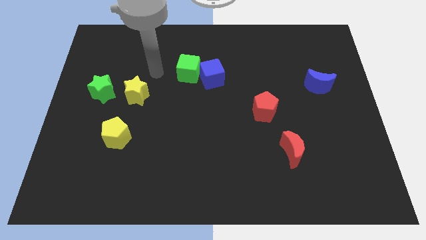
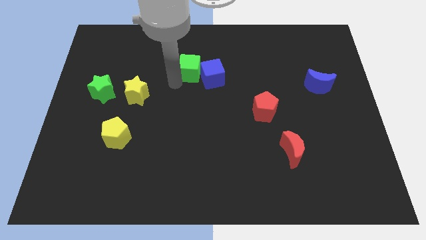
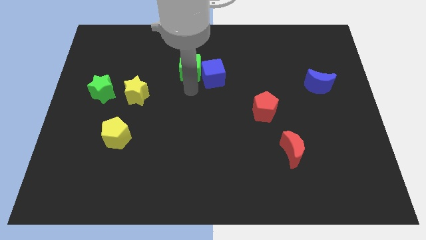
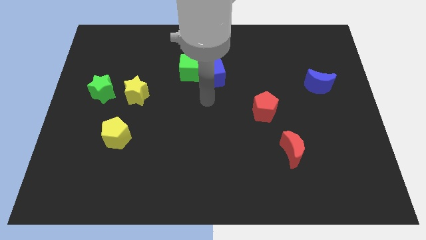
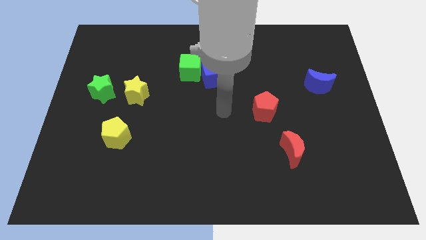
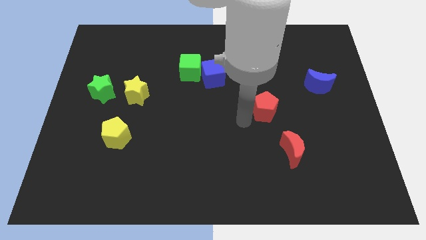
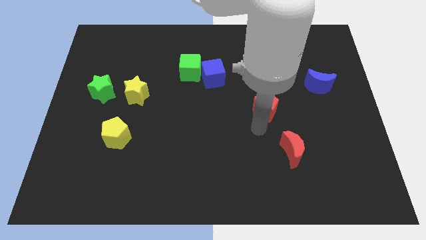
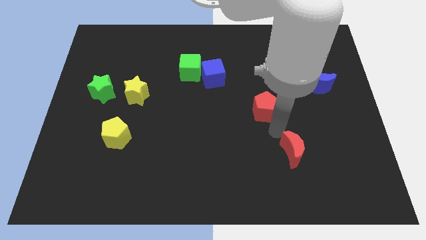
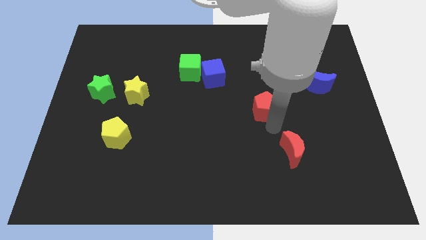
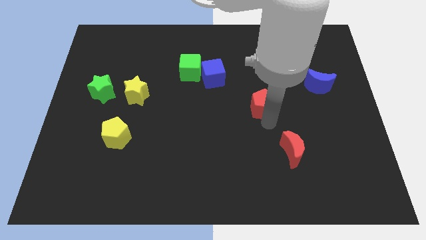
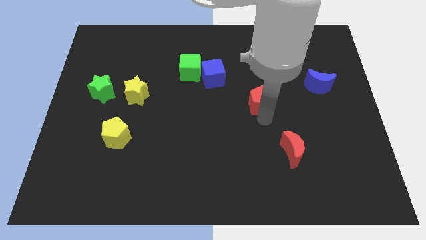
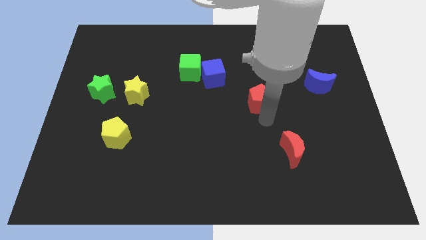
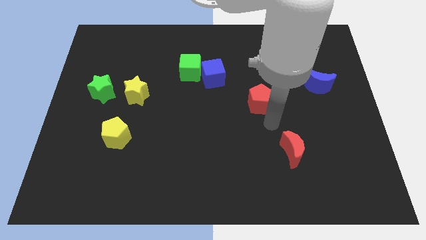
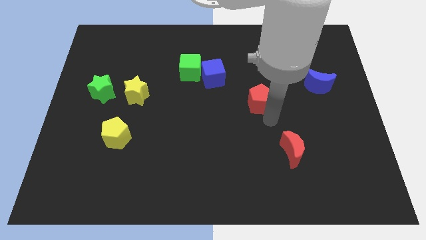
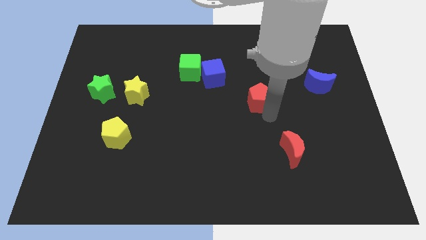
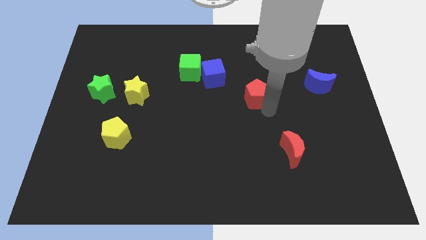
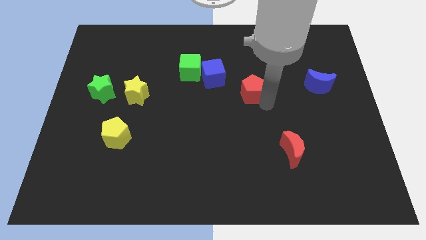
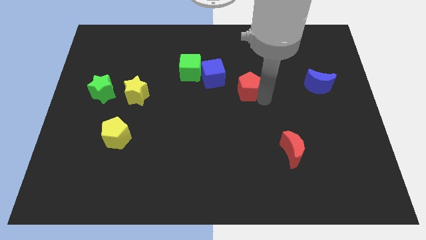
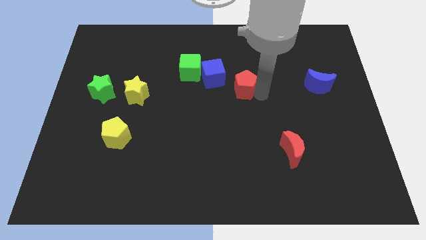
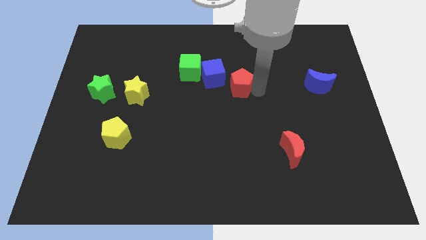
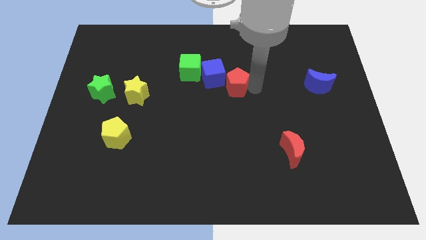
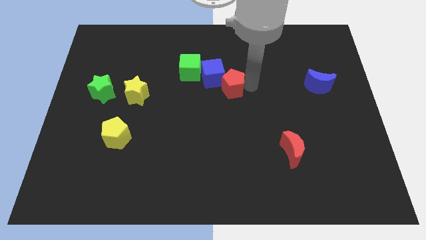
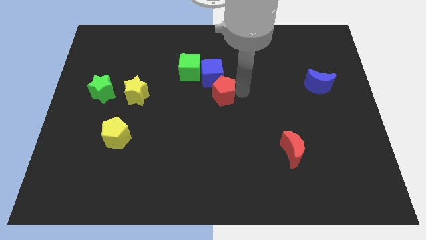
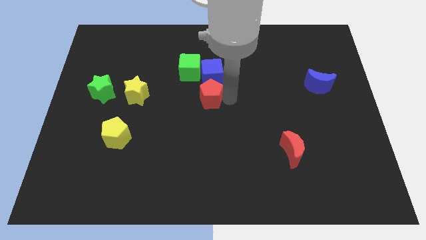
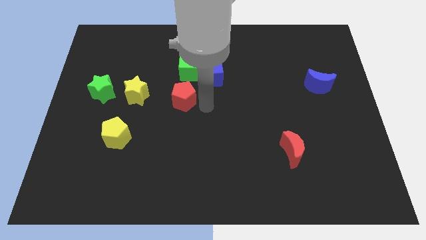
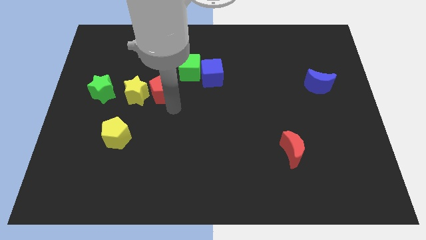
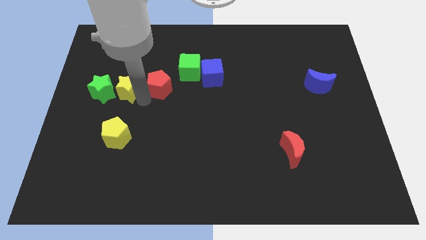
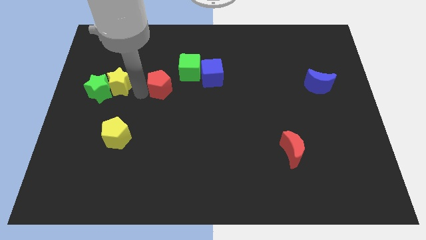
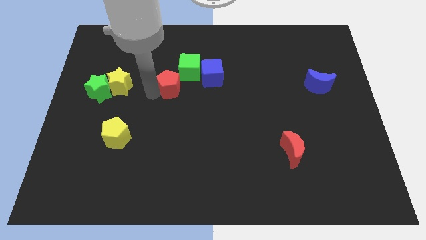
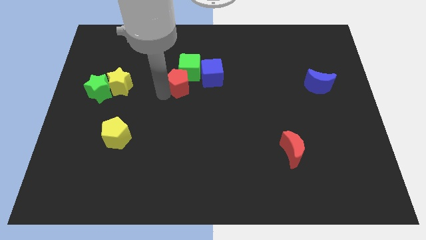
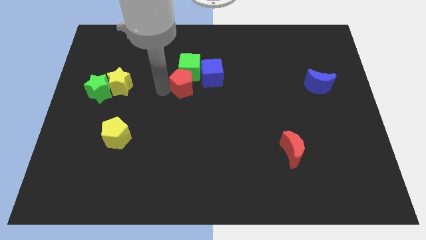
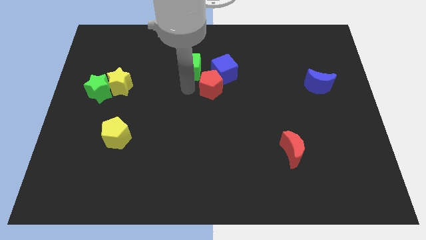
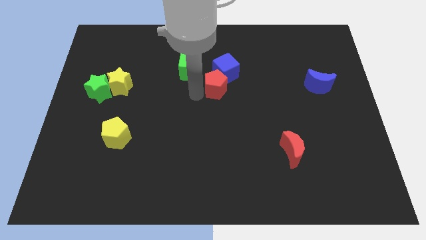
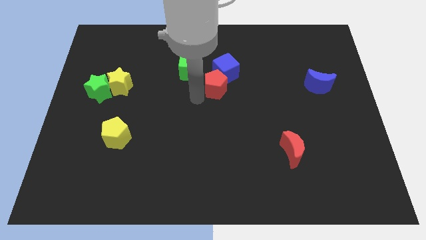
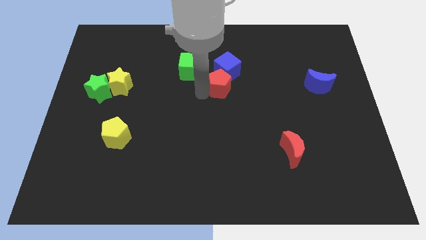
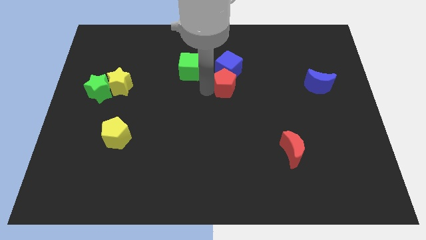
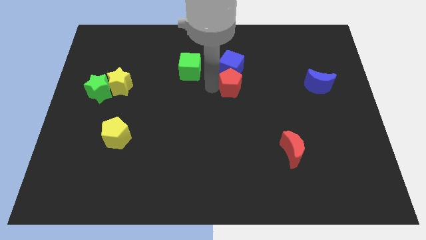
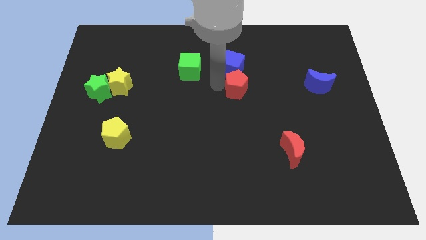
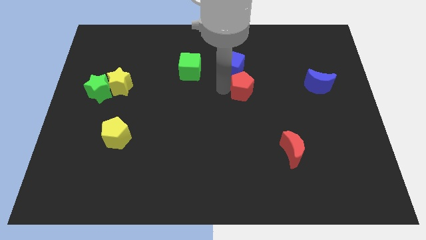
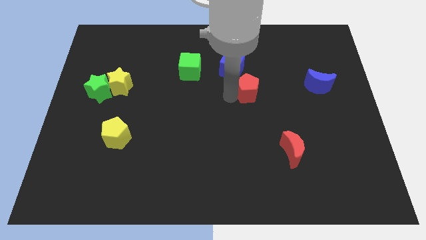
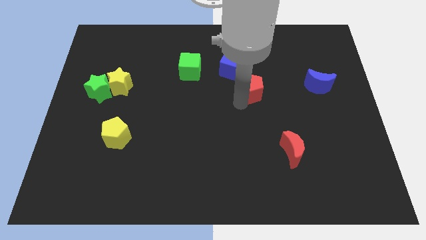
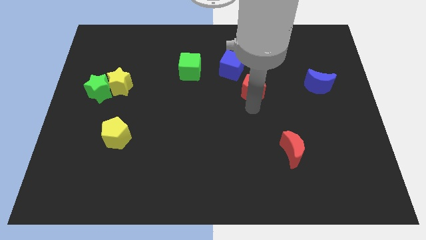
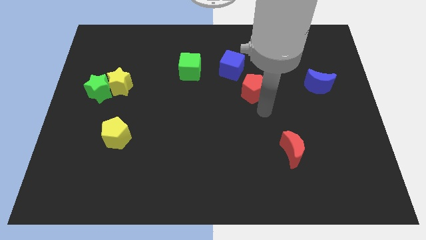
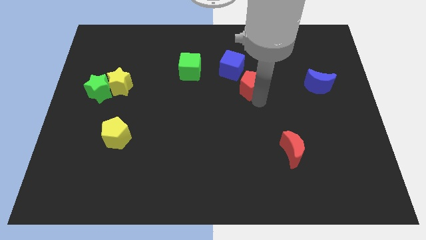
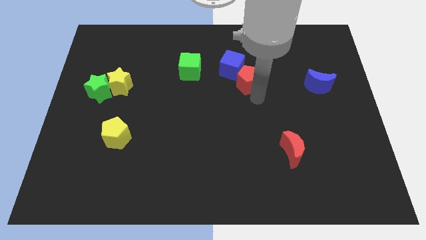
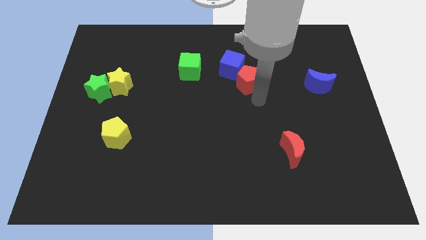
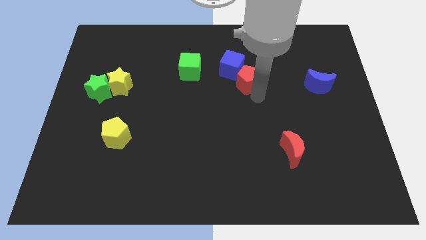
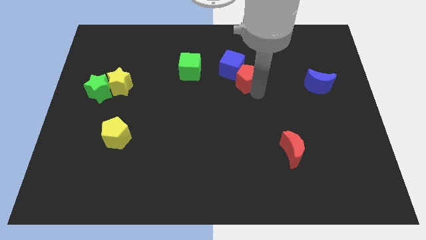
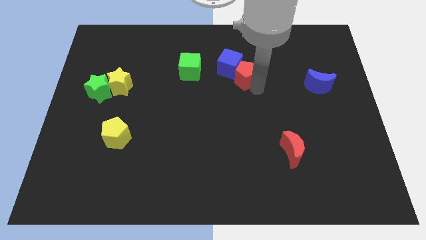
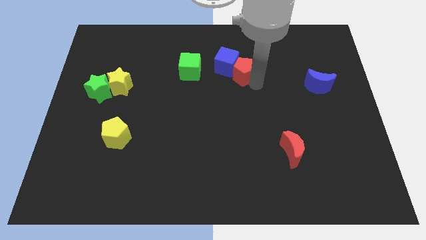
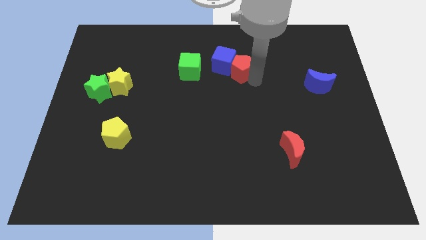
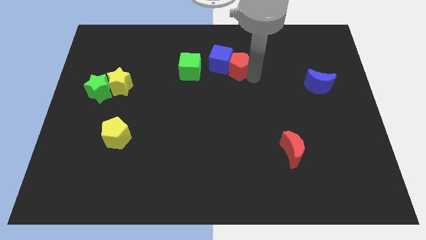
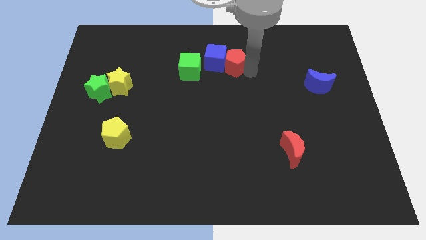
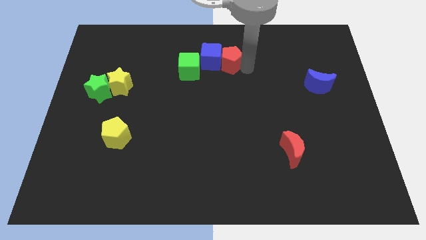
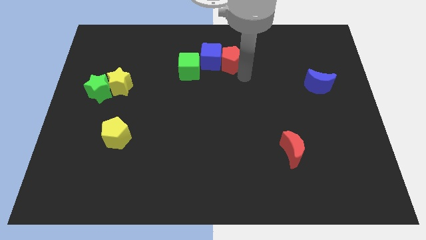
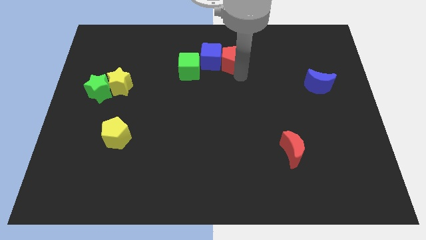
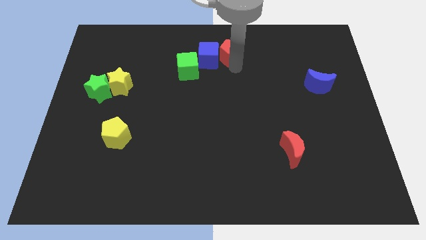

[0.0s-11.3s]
move the red pentagon to the top side
